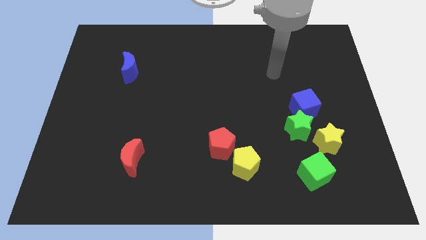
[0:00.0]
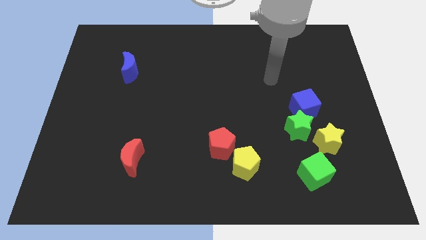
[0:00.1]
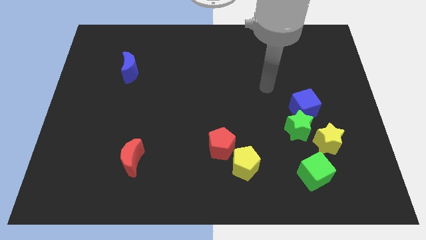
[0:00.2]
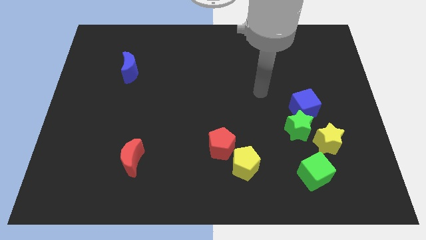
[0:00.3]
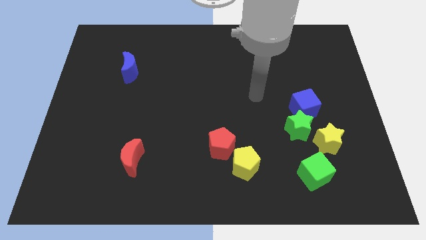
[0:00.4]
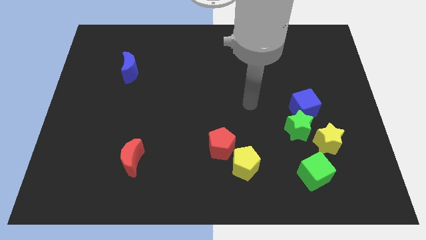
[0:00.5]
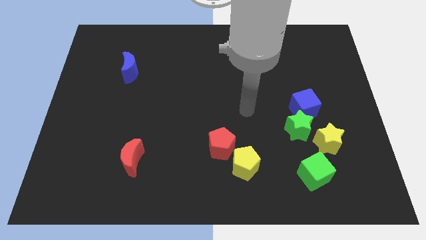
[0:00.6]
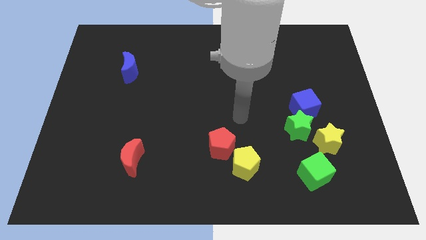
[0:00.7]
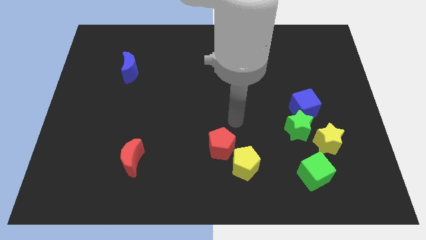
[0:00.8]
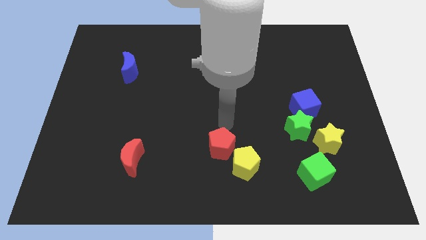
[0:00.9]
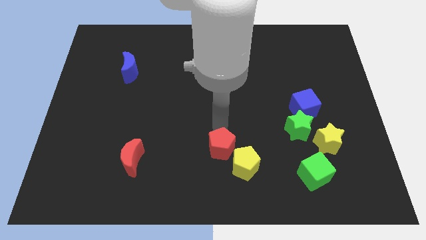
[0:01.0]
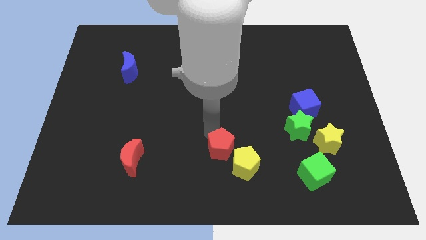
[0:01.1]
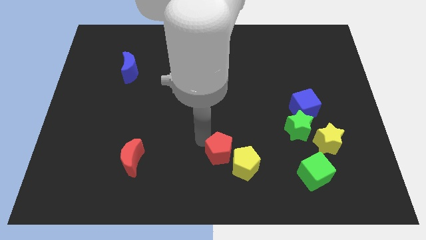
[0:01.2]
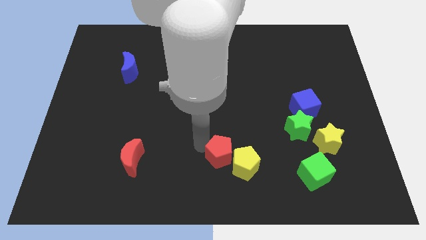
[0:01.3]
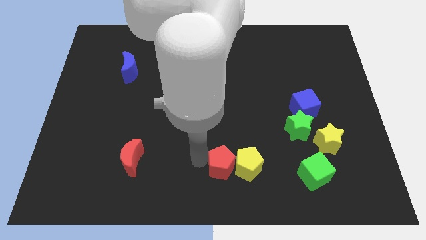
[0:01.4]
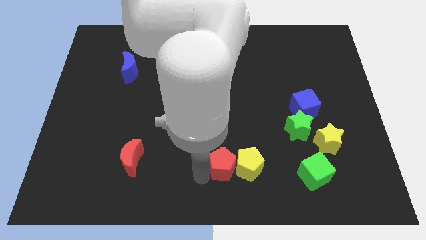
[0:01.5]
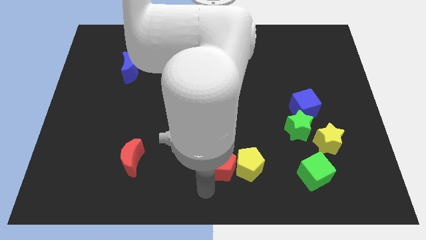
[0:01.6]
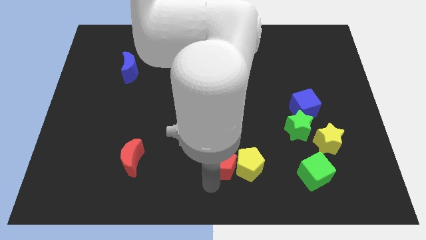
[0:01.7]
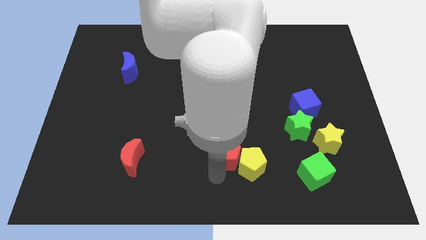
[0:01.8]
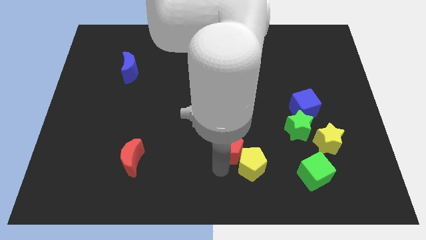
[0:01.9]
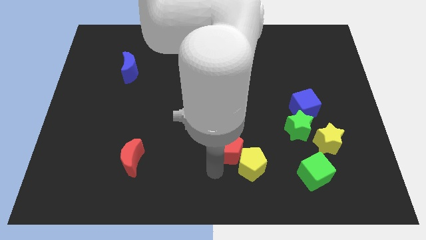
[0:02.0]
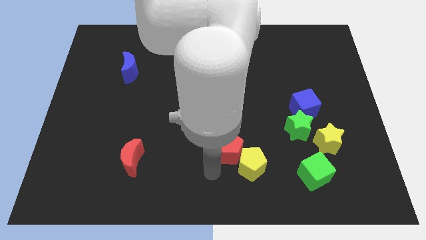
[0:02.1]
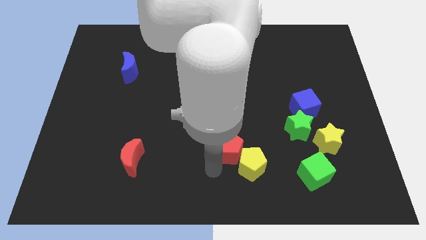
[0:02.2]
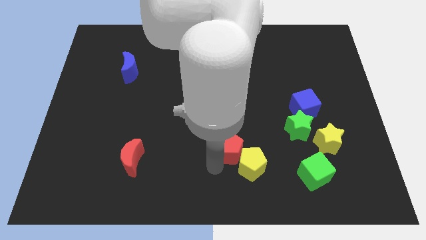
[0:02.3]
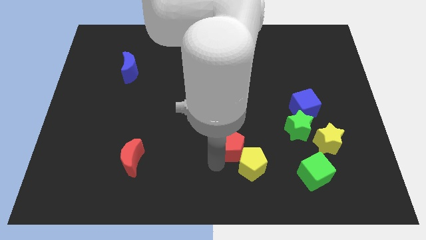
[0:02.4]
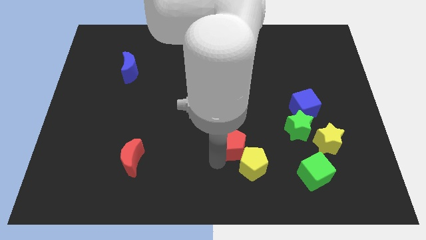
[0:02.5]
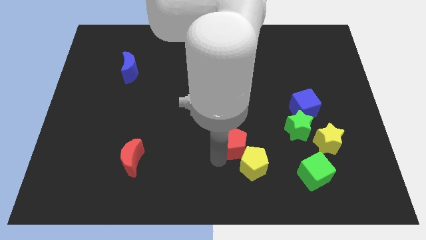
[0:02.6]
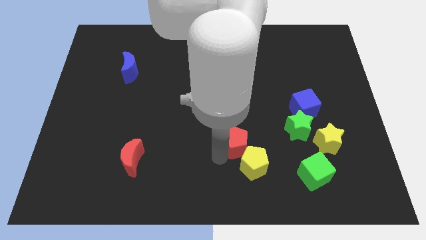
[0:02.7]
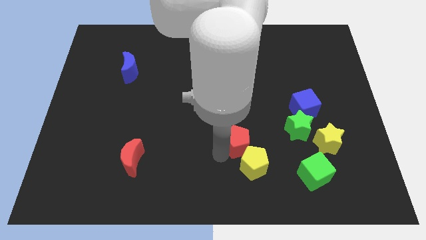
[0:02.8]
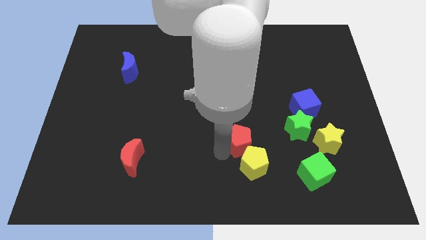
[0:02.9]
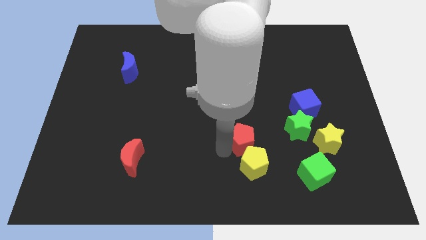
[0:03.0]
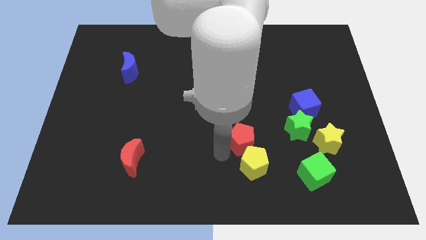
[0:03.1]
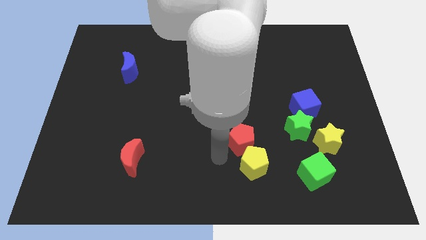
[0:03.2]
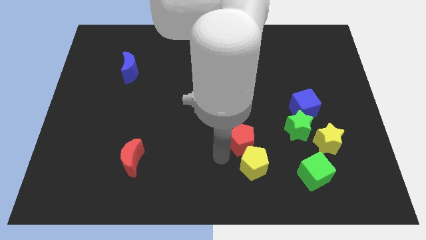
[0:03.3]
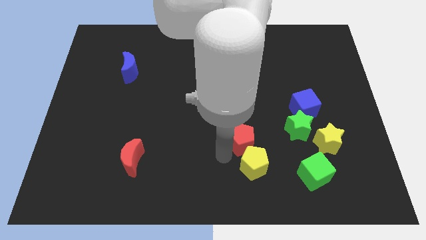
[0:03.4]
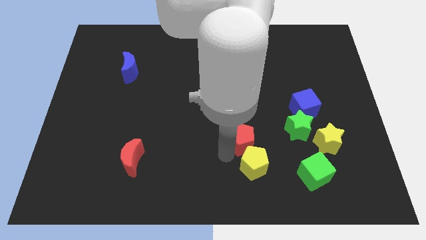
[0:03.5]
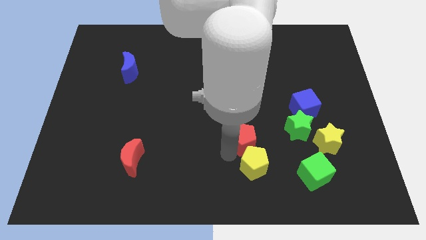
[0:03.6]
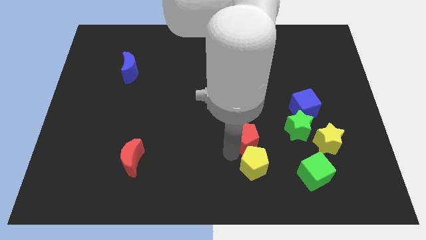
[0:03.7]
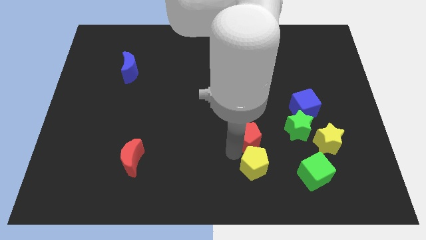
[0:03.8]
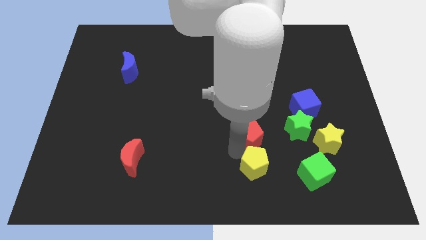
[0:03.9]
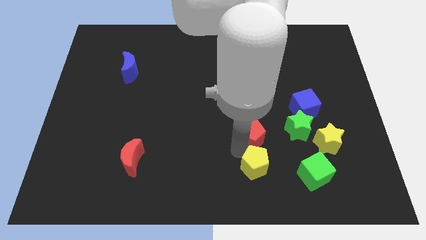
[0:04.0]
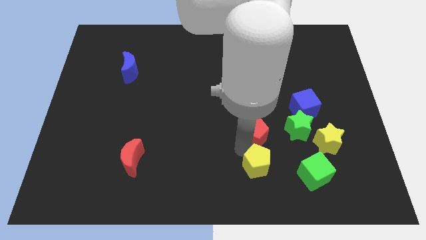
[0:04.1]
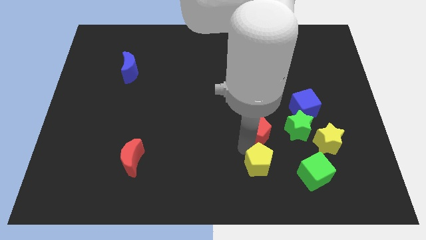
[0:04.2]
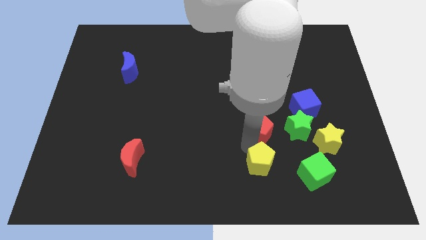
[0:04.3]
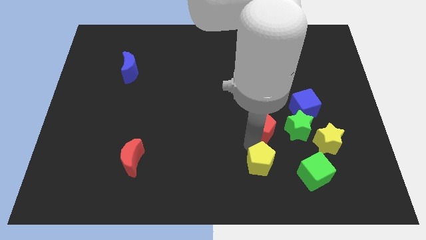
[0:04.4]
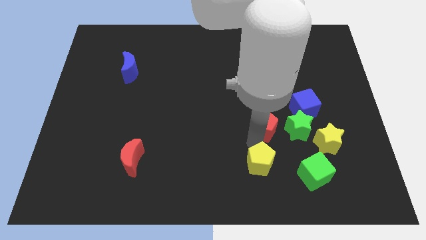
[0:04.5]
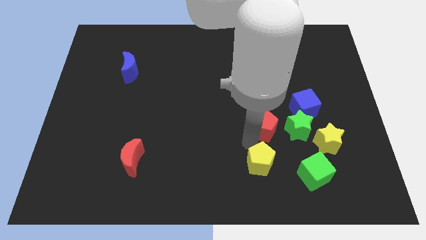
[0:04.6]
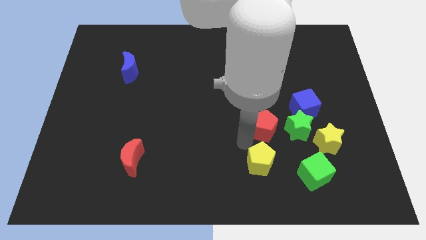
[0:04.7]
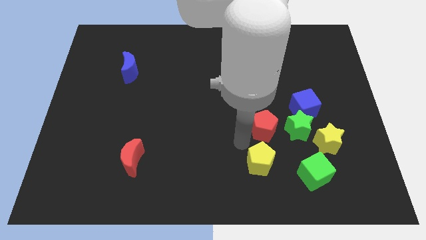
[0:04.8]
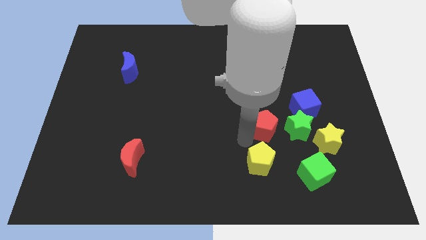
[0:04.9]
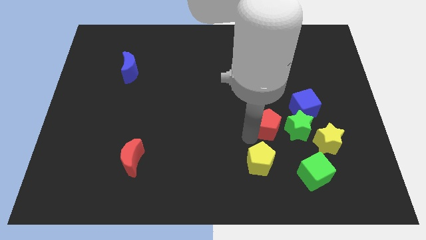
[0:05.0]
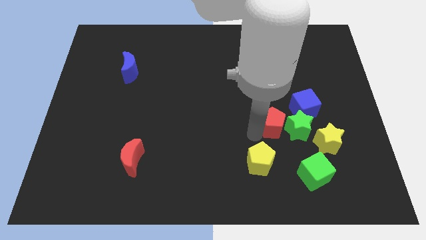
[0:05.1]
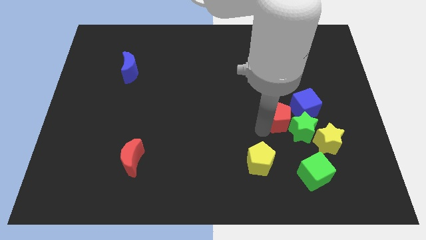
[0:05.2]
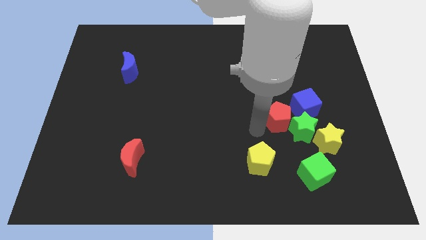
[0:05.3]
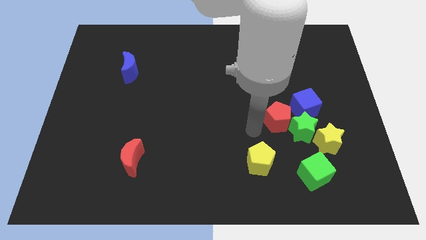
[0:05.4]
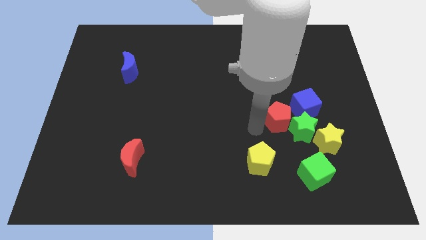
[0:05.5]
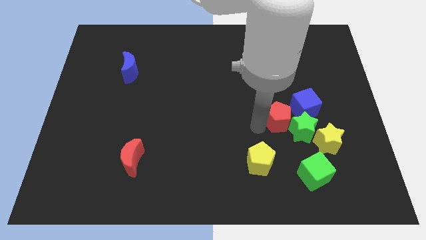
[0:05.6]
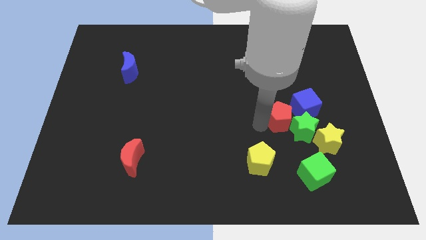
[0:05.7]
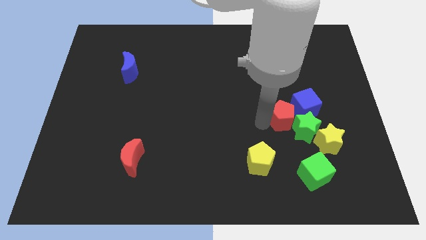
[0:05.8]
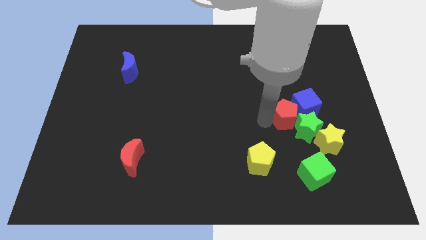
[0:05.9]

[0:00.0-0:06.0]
slide the red pentagon to the blue cube

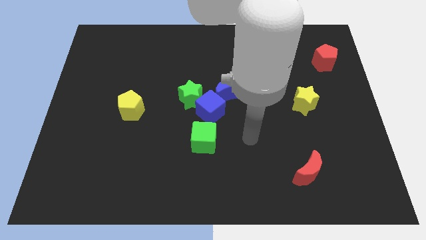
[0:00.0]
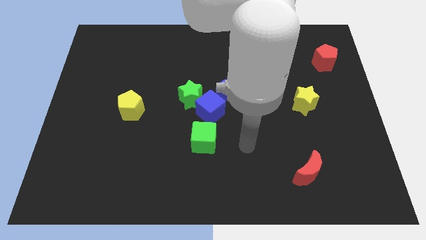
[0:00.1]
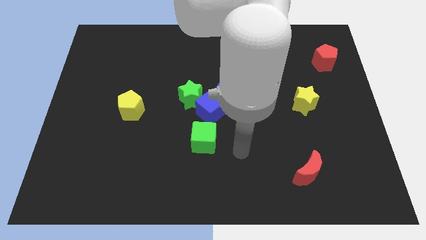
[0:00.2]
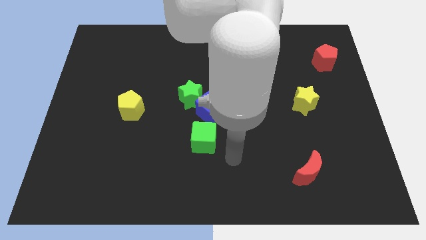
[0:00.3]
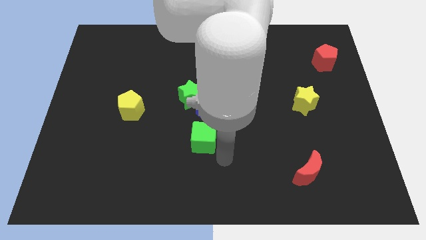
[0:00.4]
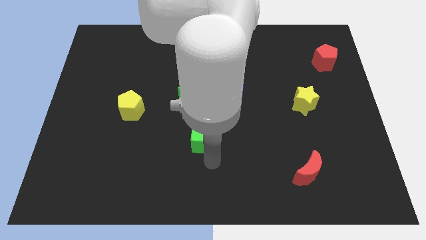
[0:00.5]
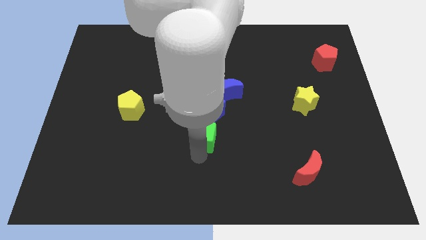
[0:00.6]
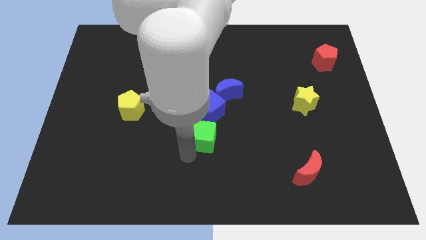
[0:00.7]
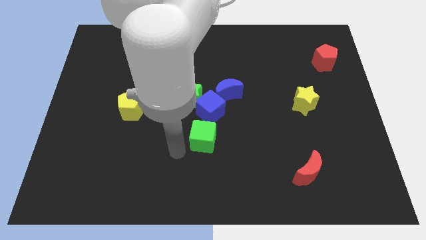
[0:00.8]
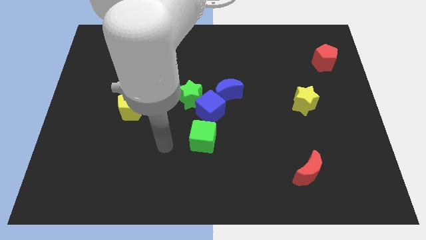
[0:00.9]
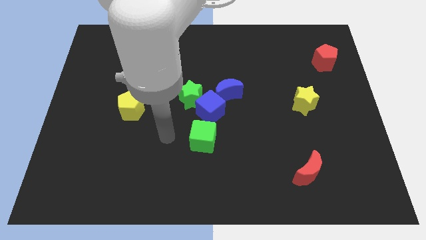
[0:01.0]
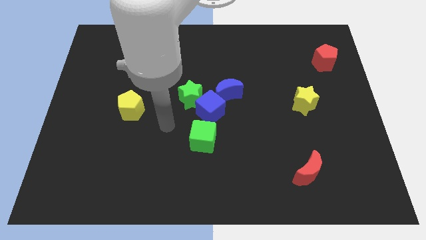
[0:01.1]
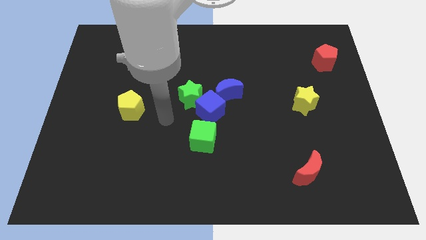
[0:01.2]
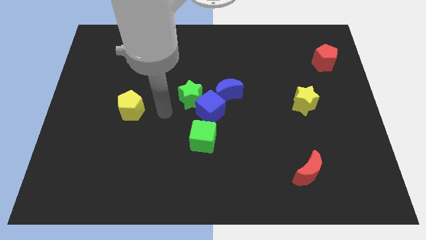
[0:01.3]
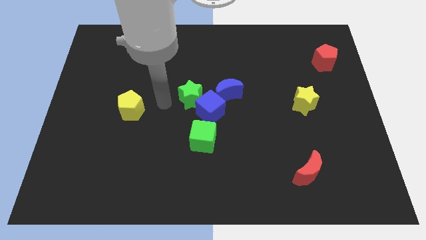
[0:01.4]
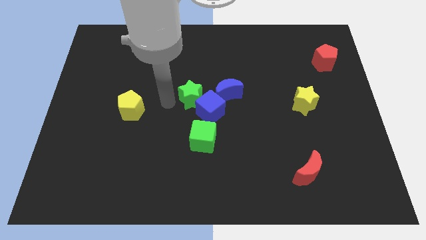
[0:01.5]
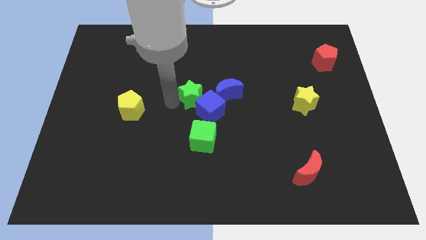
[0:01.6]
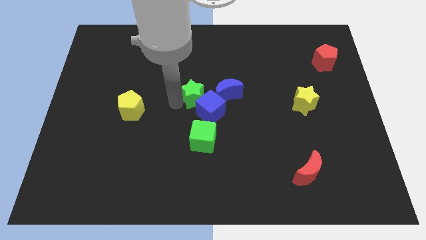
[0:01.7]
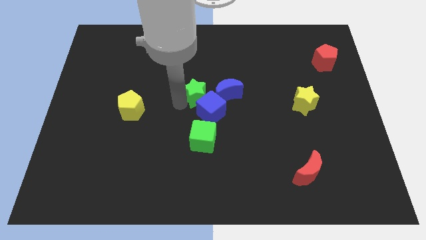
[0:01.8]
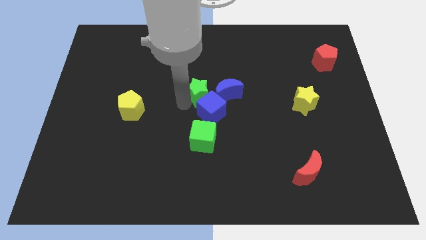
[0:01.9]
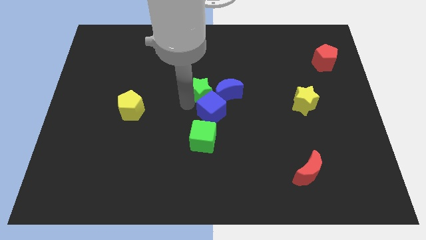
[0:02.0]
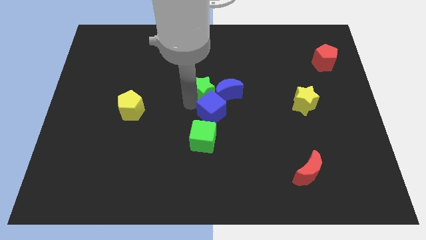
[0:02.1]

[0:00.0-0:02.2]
push the green star towards the blue moon
